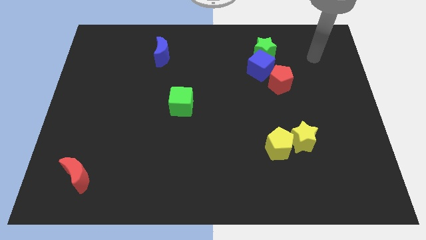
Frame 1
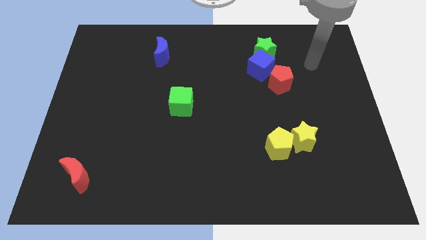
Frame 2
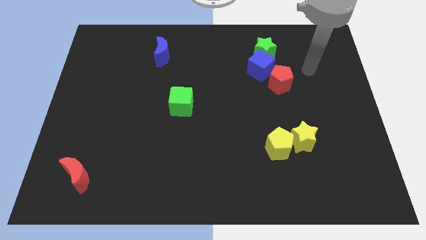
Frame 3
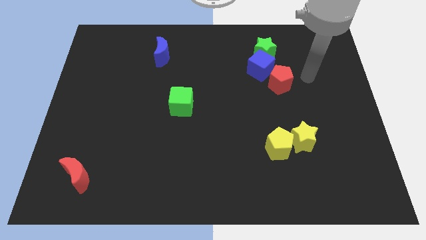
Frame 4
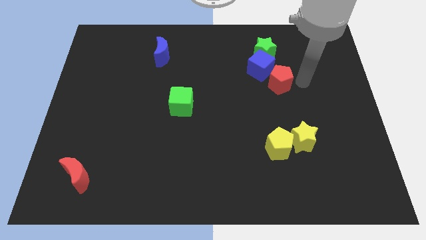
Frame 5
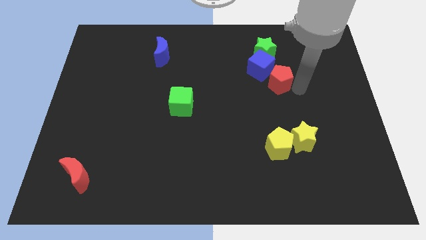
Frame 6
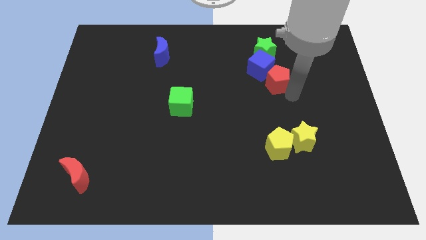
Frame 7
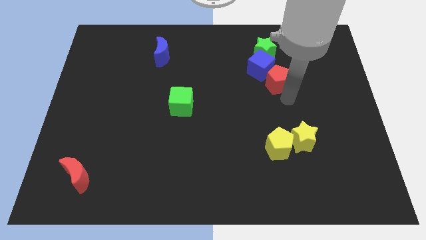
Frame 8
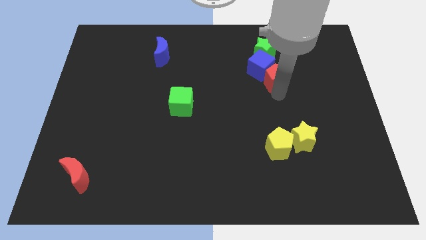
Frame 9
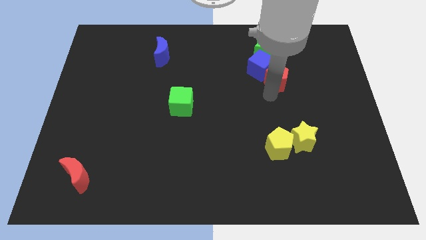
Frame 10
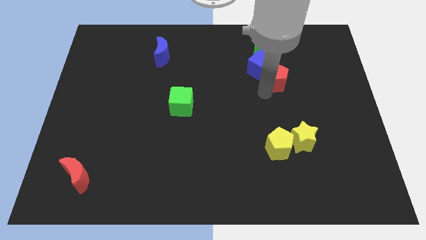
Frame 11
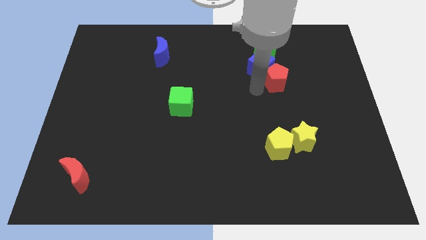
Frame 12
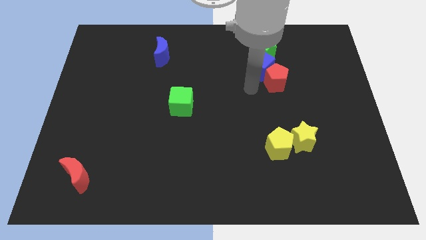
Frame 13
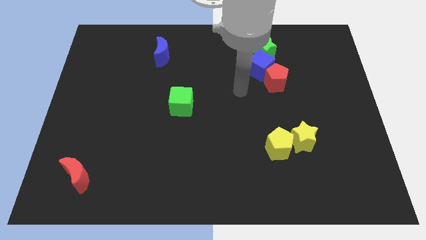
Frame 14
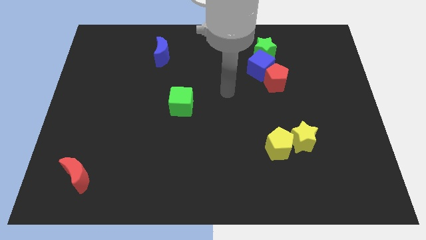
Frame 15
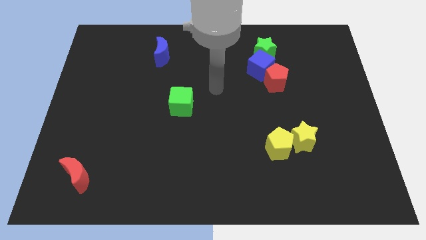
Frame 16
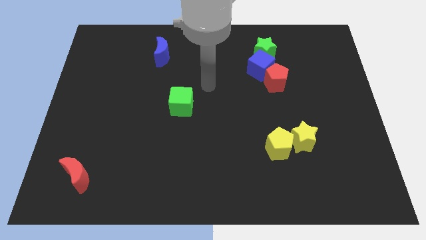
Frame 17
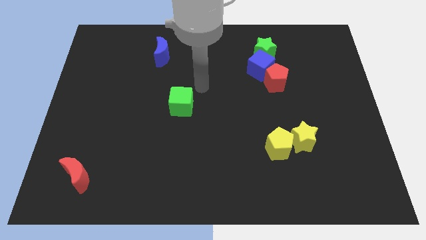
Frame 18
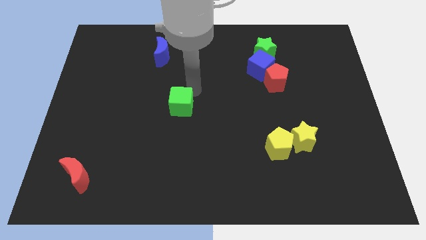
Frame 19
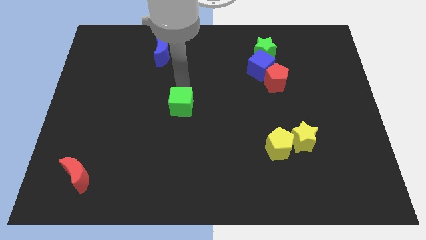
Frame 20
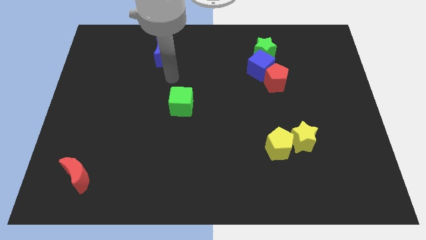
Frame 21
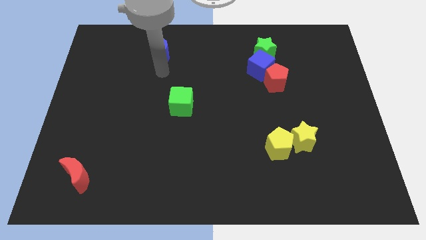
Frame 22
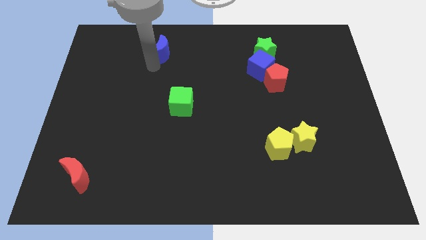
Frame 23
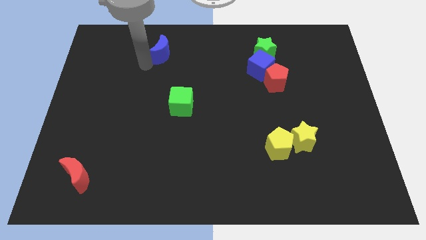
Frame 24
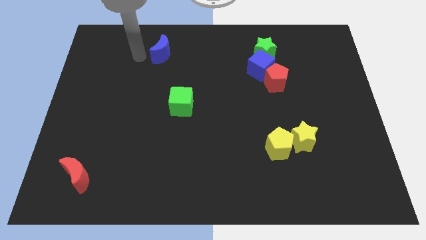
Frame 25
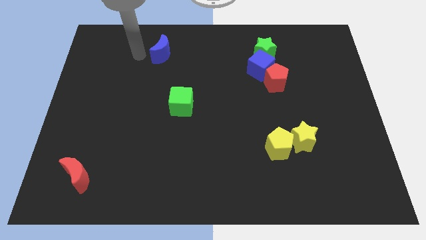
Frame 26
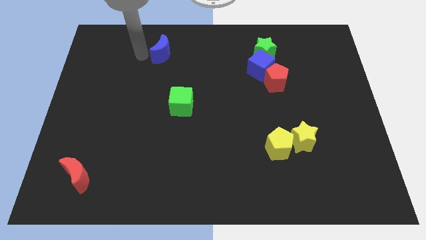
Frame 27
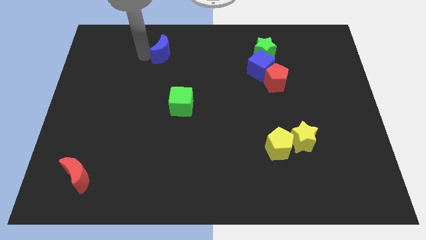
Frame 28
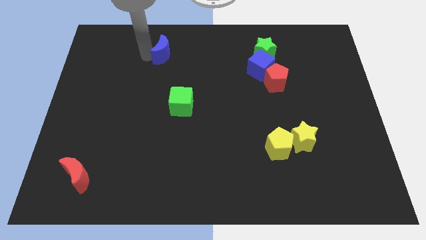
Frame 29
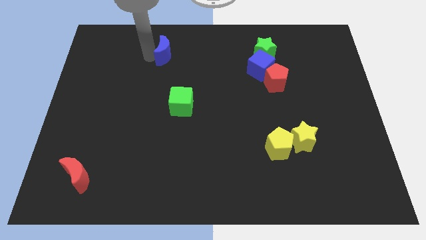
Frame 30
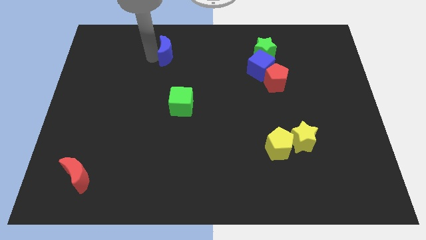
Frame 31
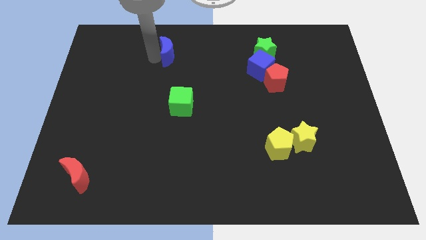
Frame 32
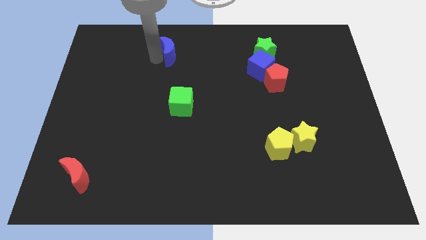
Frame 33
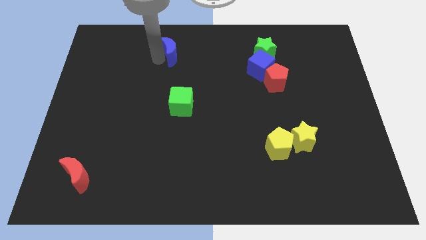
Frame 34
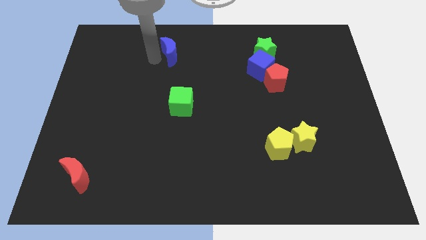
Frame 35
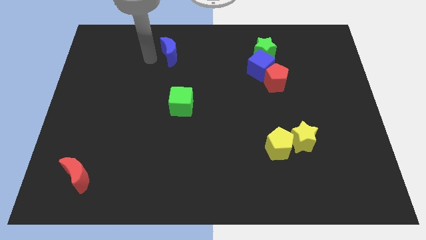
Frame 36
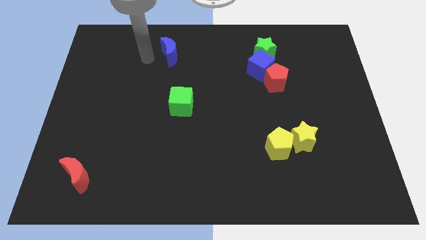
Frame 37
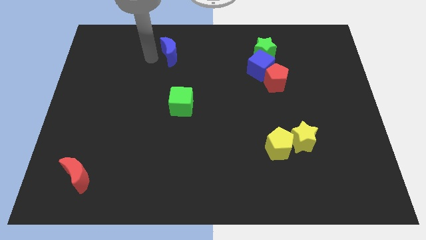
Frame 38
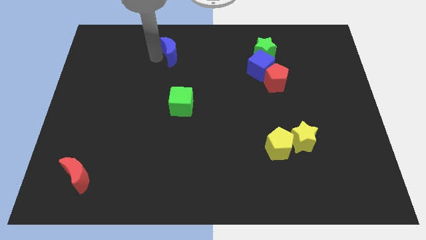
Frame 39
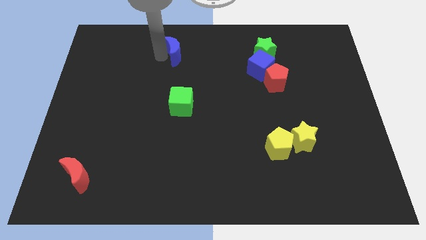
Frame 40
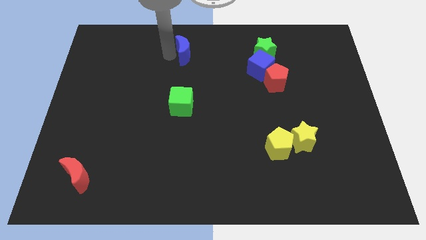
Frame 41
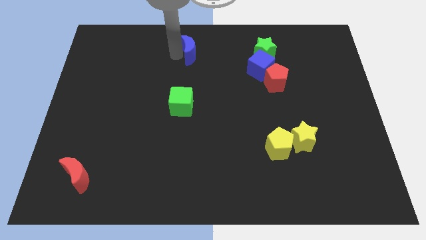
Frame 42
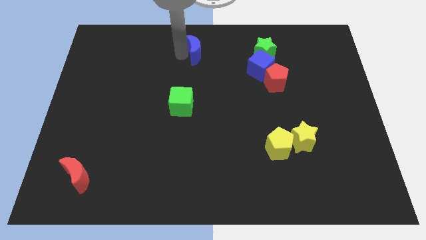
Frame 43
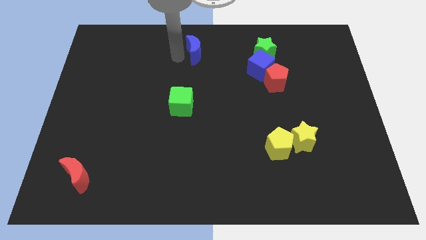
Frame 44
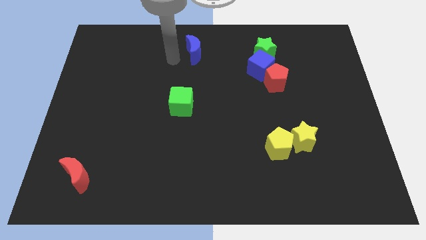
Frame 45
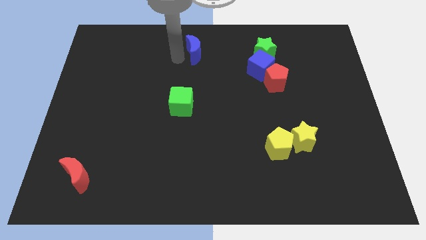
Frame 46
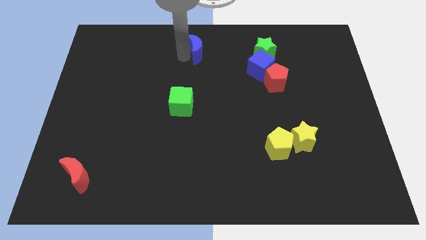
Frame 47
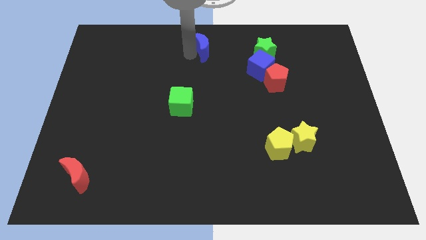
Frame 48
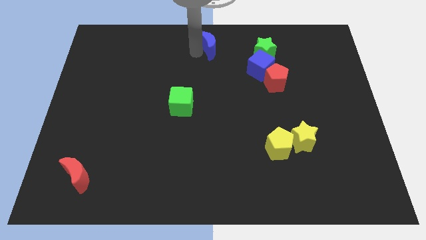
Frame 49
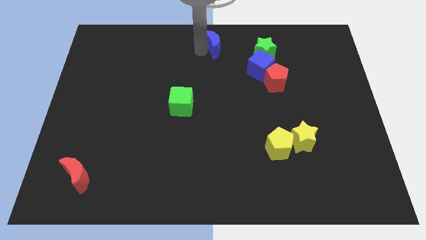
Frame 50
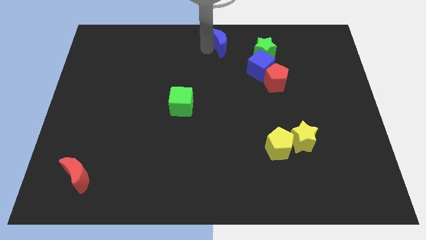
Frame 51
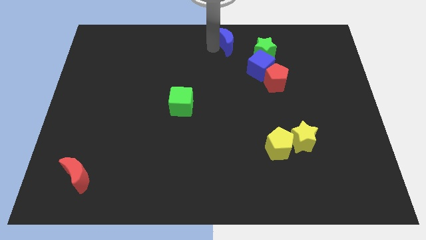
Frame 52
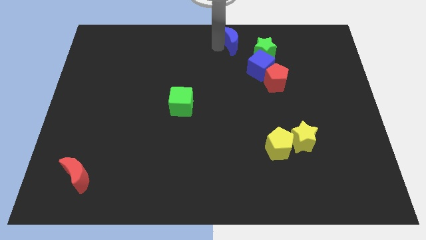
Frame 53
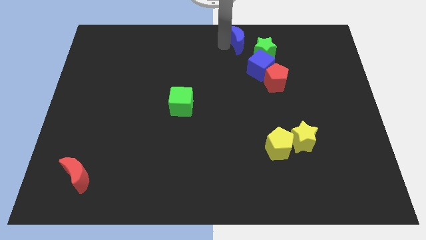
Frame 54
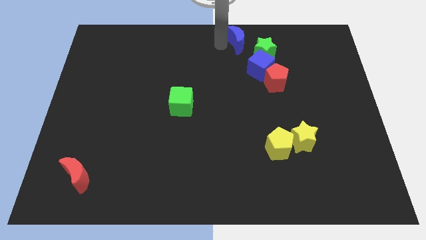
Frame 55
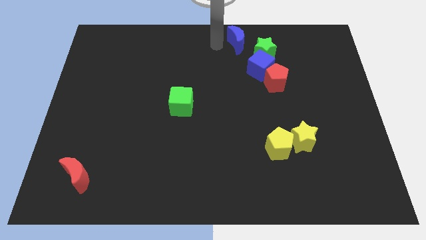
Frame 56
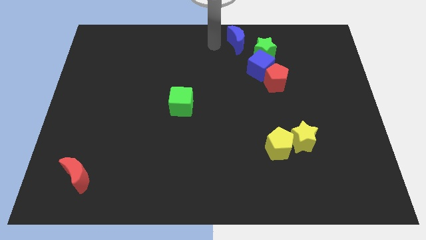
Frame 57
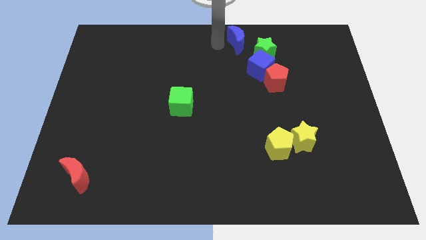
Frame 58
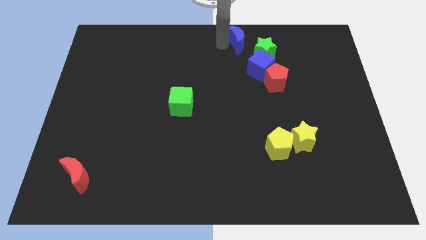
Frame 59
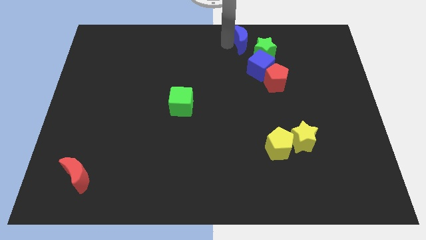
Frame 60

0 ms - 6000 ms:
push the blue moon right

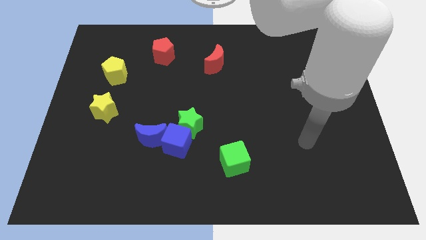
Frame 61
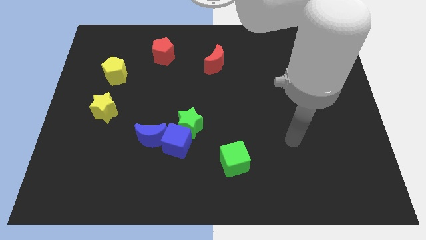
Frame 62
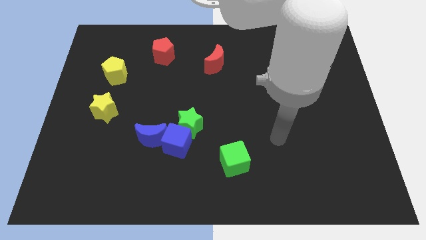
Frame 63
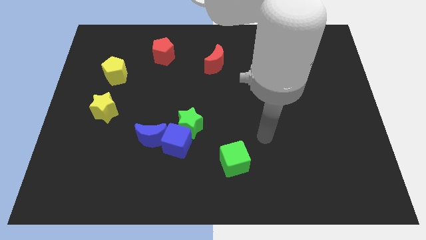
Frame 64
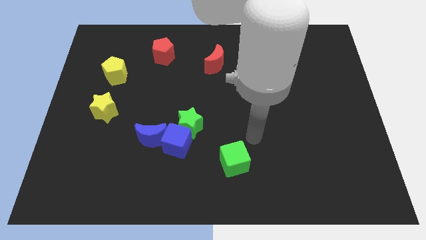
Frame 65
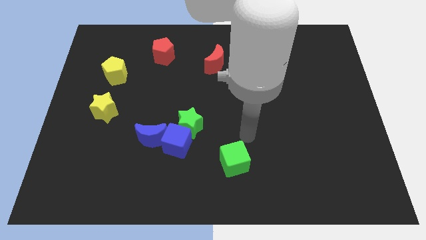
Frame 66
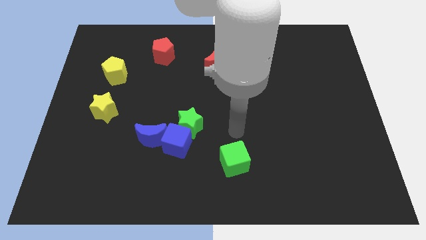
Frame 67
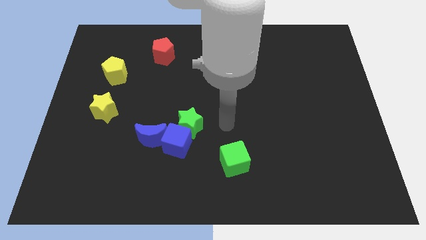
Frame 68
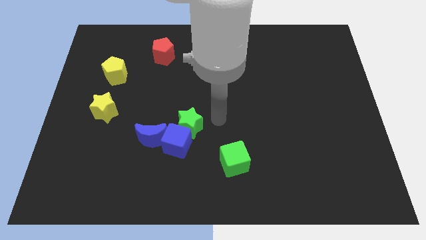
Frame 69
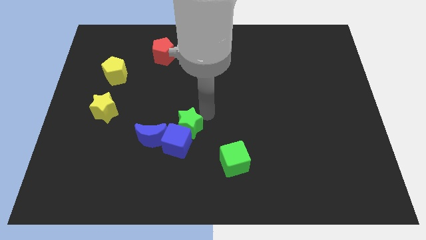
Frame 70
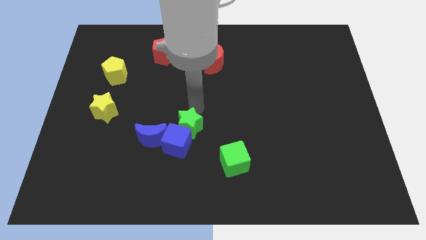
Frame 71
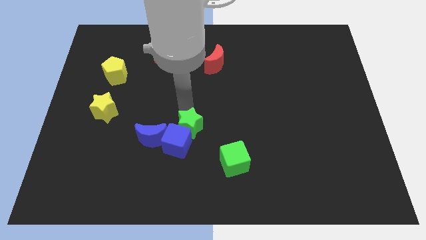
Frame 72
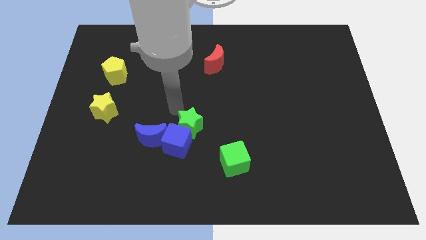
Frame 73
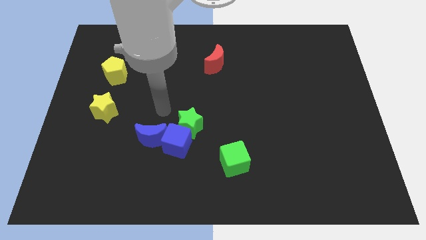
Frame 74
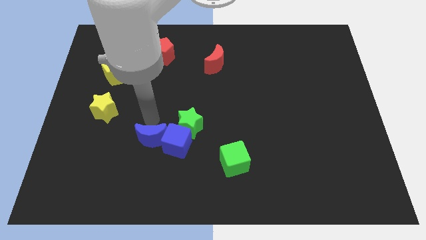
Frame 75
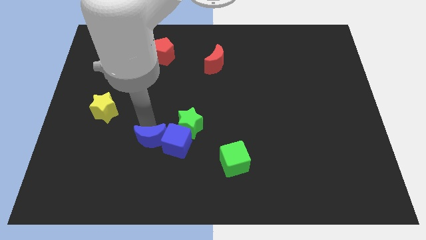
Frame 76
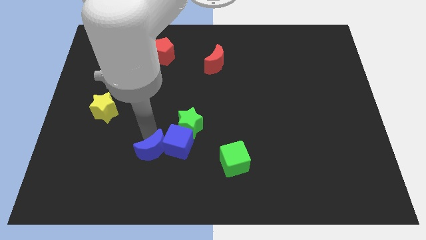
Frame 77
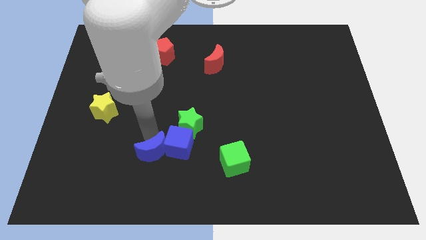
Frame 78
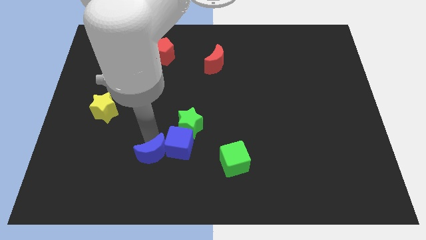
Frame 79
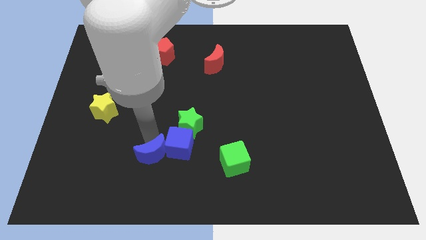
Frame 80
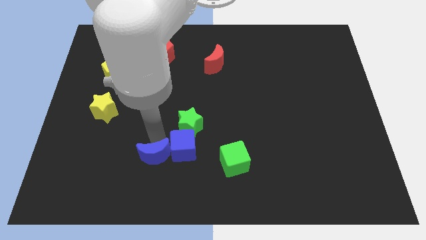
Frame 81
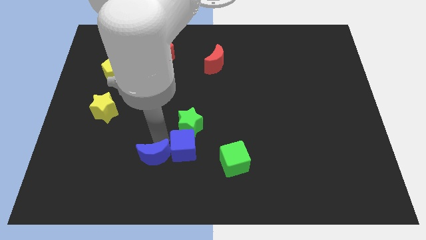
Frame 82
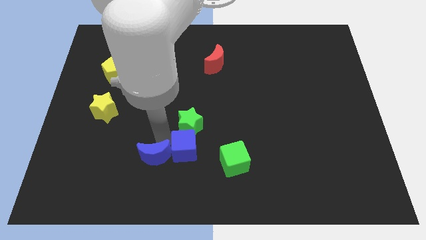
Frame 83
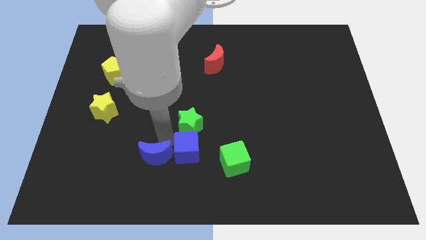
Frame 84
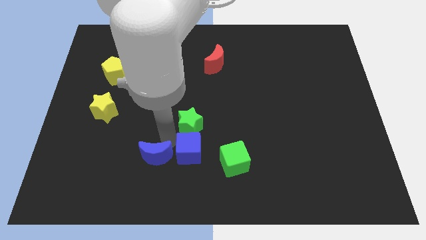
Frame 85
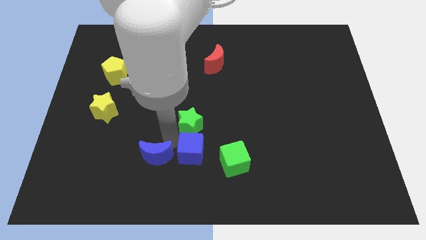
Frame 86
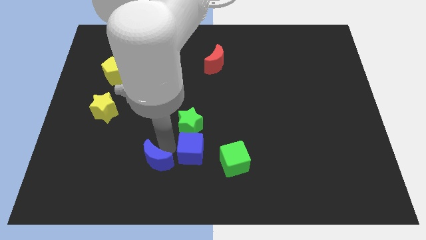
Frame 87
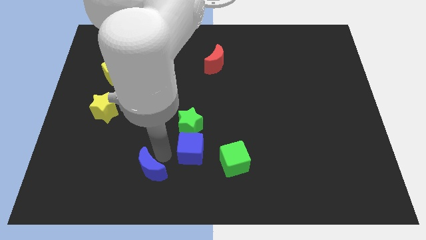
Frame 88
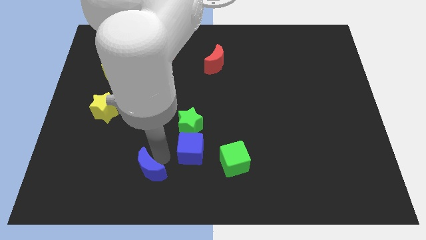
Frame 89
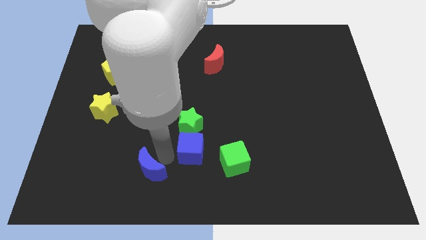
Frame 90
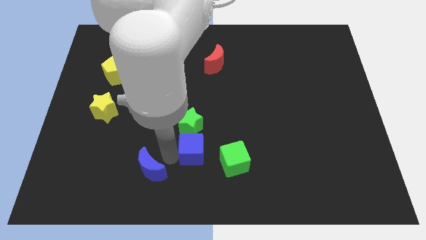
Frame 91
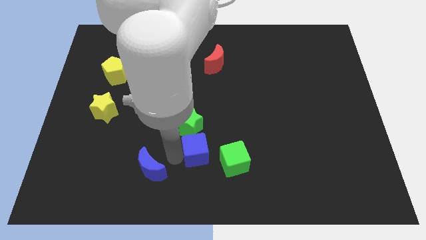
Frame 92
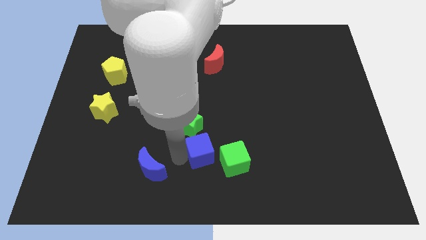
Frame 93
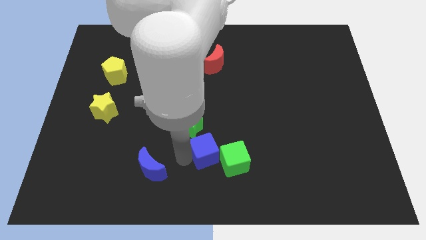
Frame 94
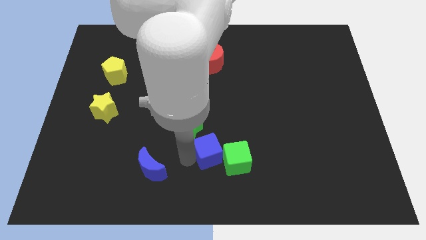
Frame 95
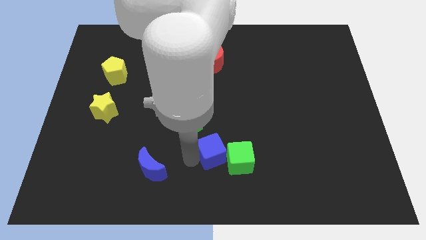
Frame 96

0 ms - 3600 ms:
push the blue cube to the right a bit
